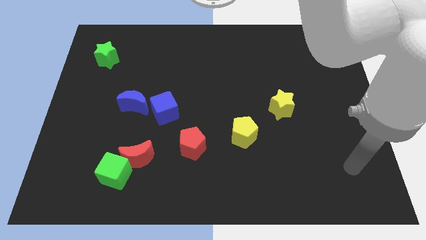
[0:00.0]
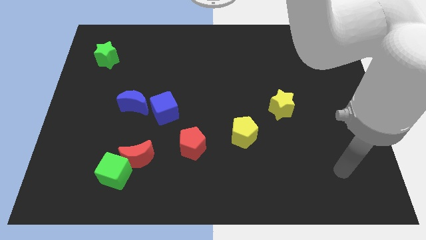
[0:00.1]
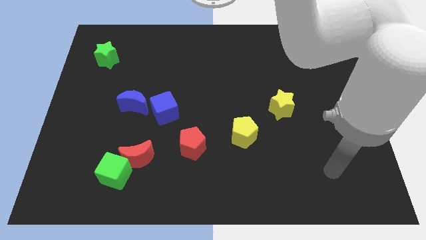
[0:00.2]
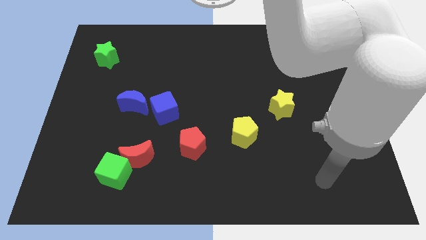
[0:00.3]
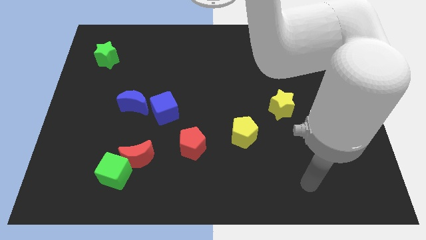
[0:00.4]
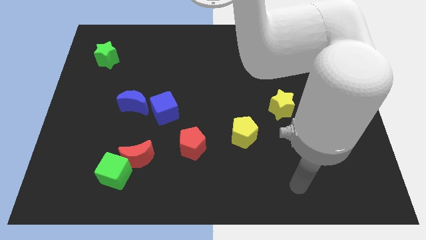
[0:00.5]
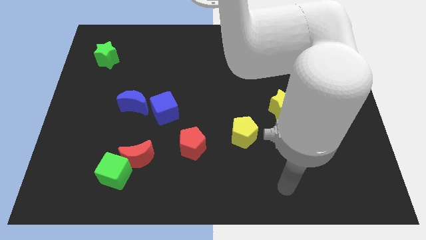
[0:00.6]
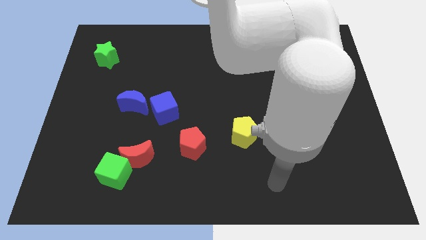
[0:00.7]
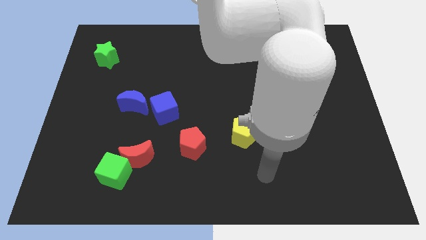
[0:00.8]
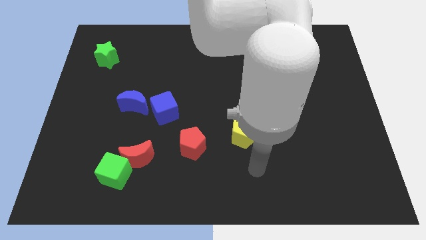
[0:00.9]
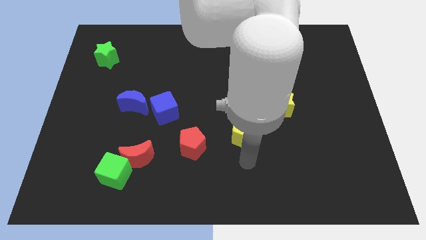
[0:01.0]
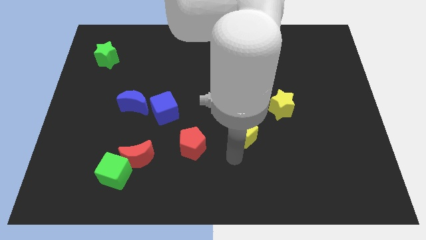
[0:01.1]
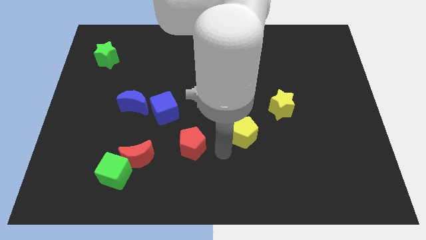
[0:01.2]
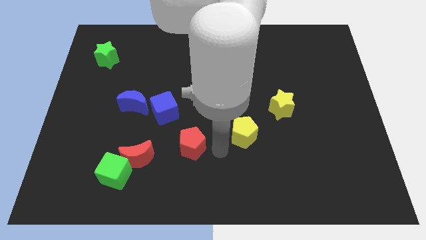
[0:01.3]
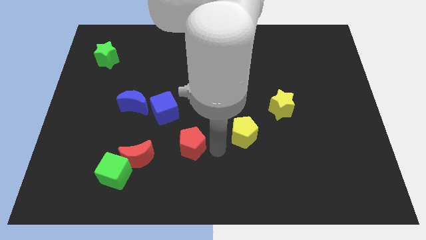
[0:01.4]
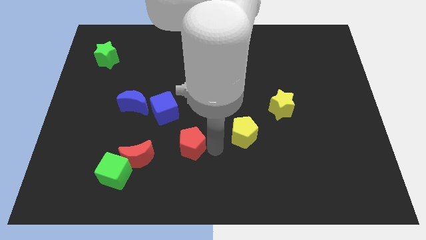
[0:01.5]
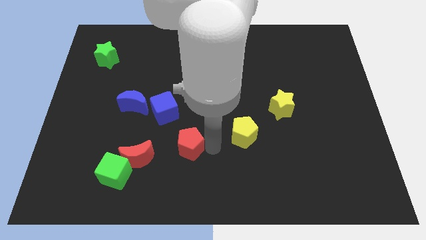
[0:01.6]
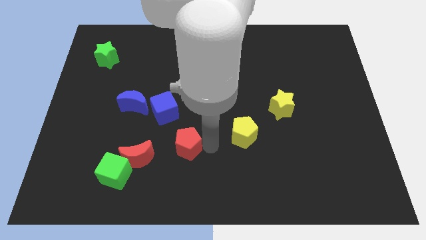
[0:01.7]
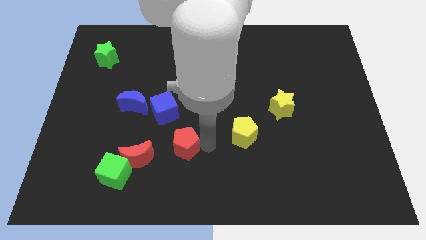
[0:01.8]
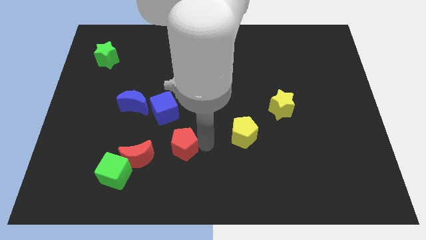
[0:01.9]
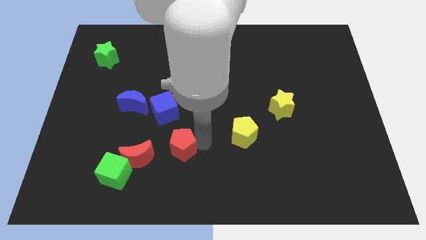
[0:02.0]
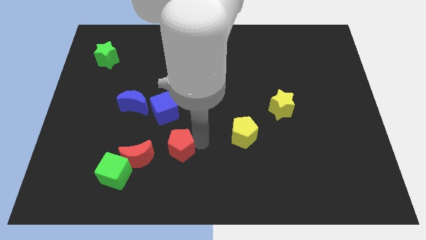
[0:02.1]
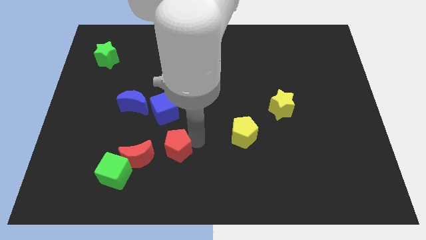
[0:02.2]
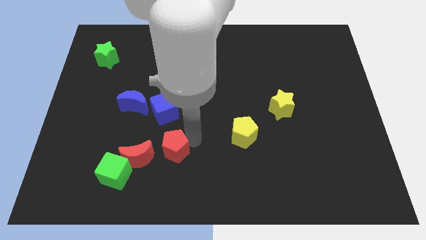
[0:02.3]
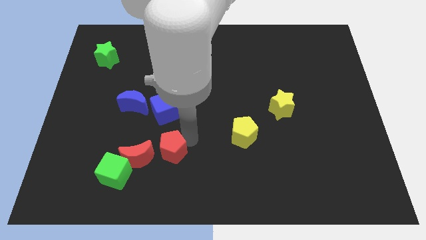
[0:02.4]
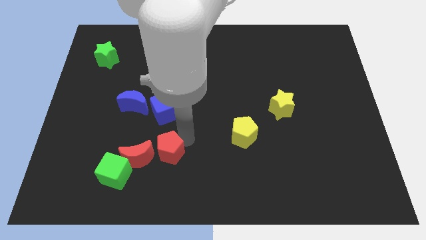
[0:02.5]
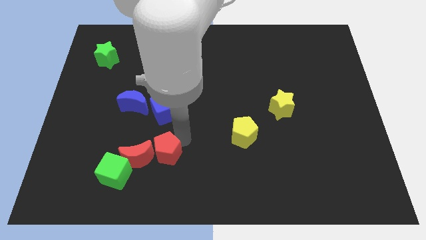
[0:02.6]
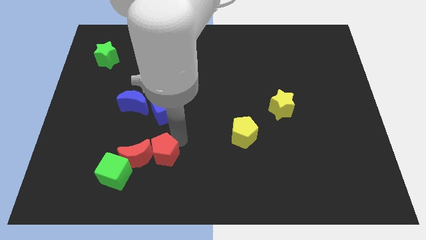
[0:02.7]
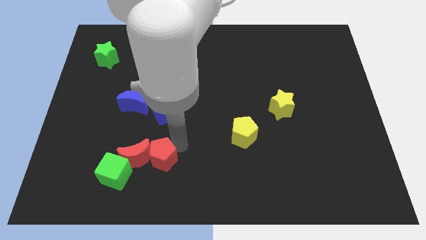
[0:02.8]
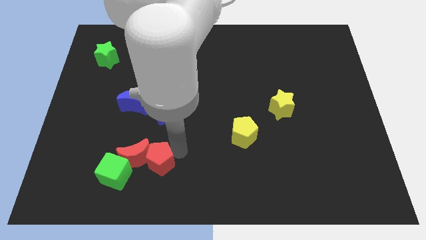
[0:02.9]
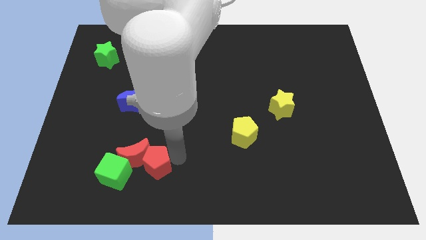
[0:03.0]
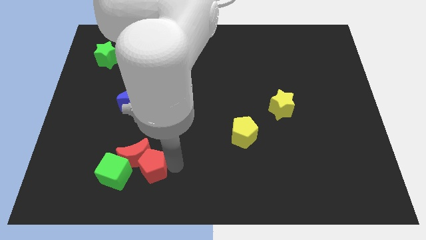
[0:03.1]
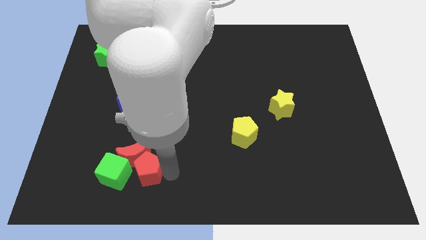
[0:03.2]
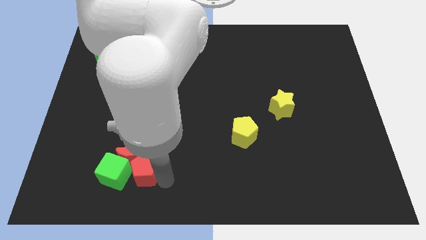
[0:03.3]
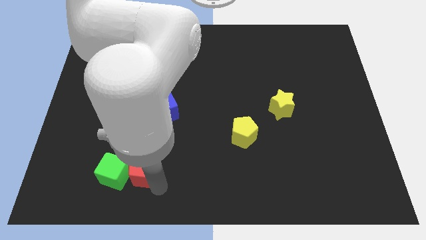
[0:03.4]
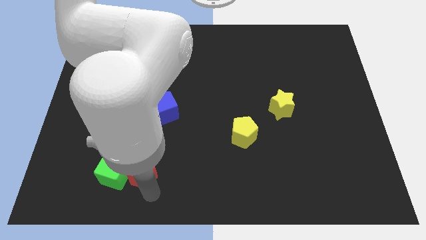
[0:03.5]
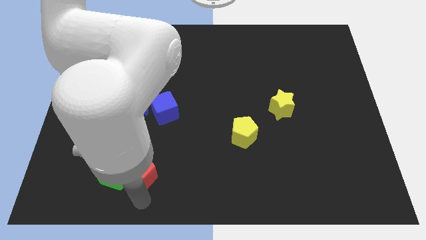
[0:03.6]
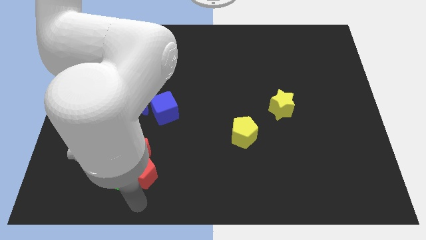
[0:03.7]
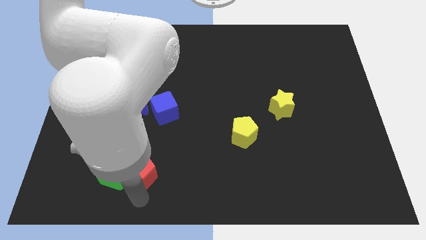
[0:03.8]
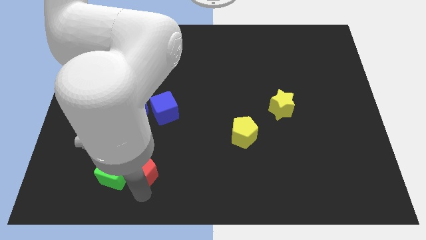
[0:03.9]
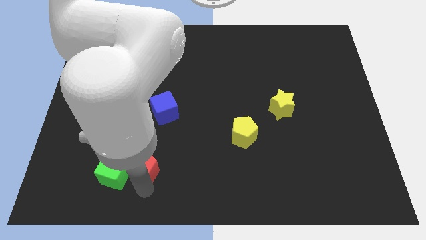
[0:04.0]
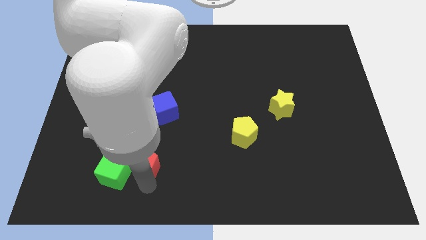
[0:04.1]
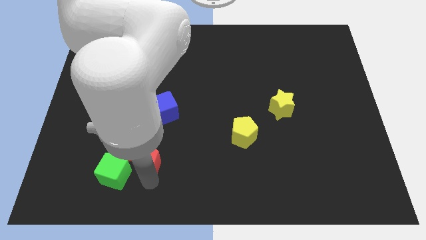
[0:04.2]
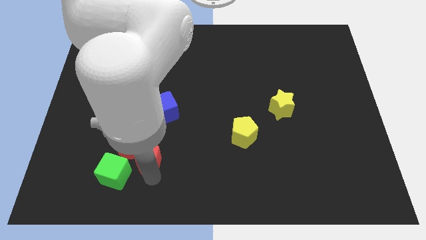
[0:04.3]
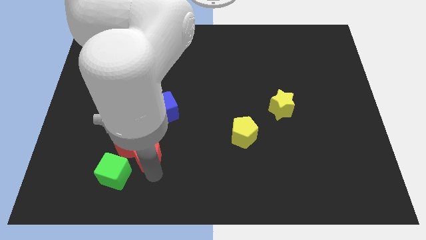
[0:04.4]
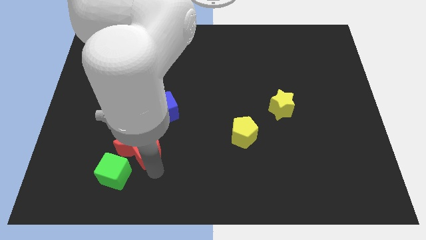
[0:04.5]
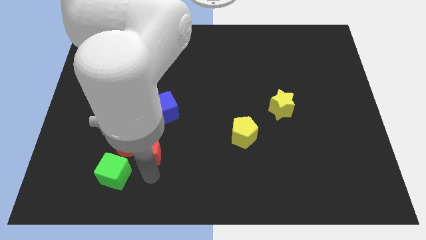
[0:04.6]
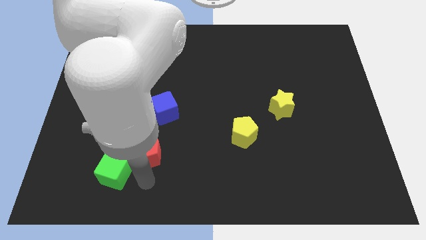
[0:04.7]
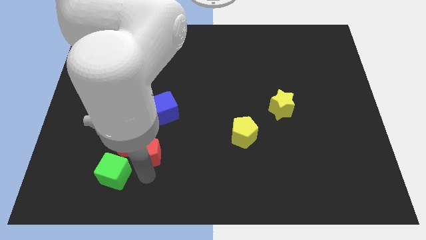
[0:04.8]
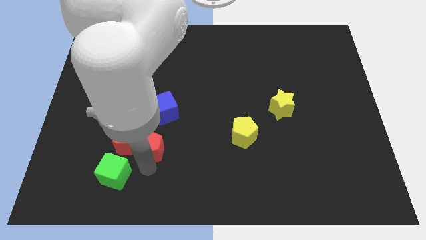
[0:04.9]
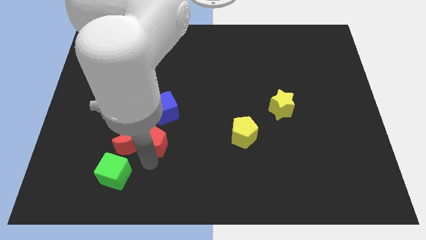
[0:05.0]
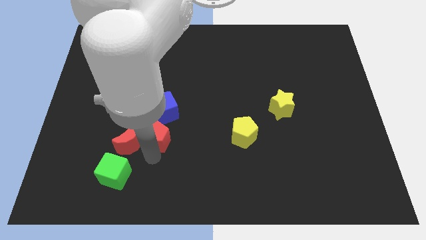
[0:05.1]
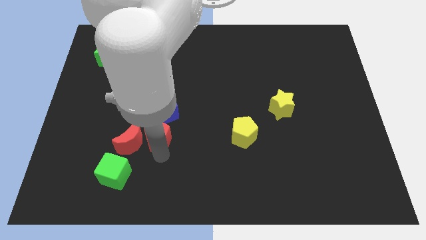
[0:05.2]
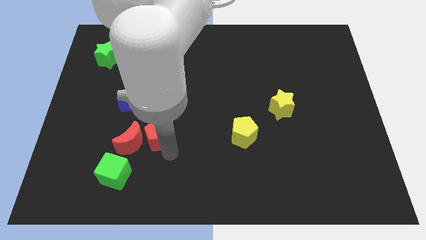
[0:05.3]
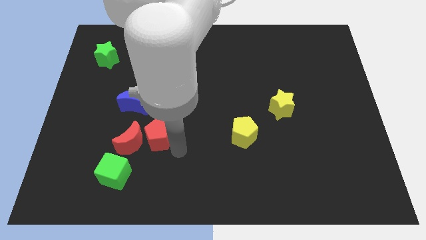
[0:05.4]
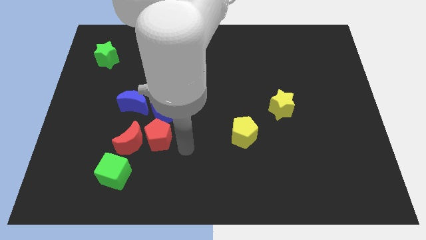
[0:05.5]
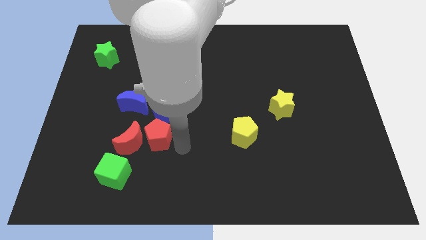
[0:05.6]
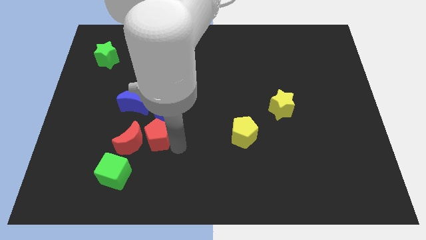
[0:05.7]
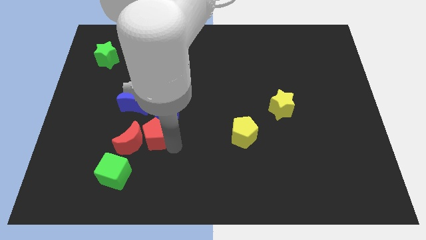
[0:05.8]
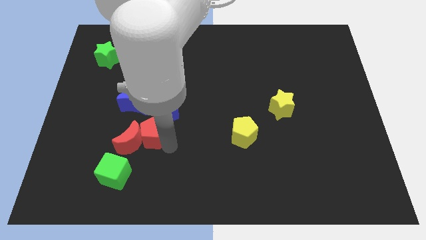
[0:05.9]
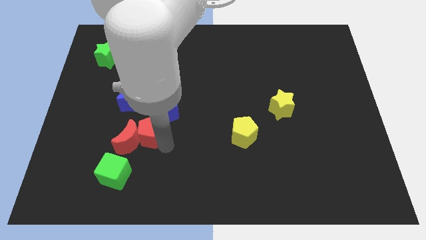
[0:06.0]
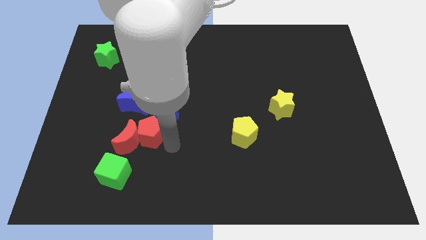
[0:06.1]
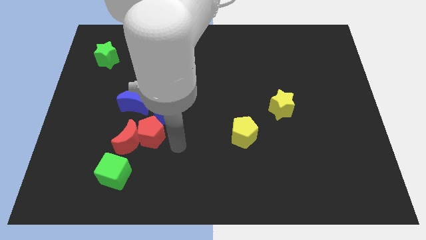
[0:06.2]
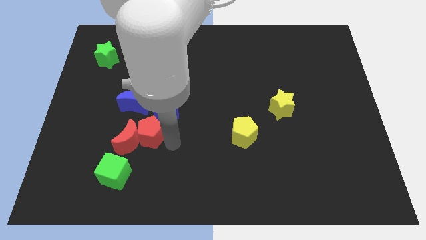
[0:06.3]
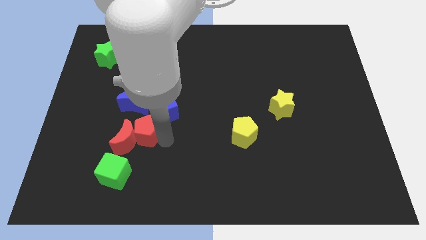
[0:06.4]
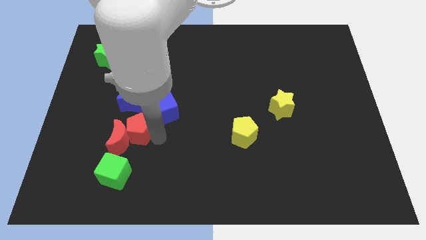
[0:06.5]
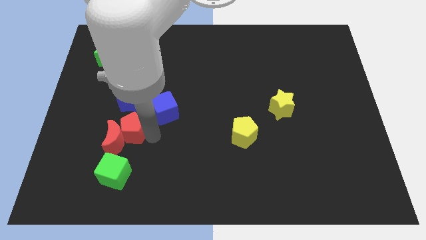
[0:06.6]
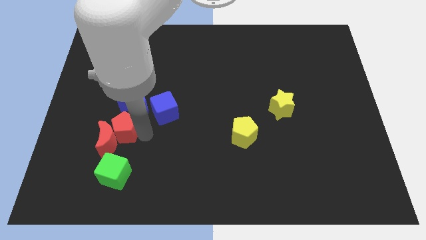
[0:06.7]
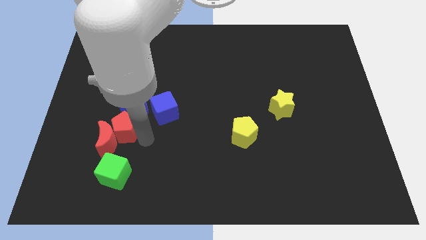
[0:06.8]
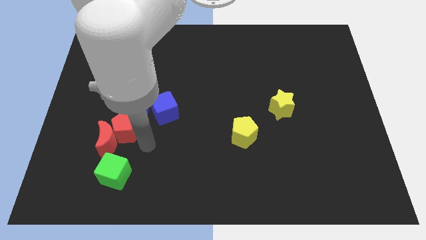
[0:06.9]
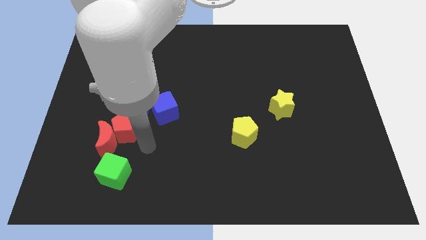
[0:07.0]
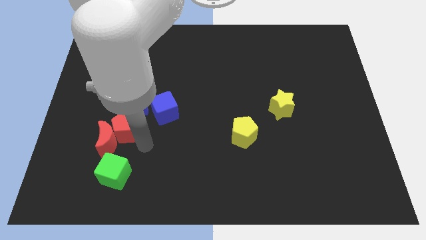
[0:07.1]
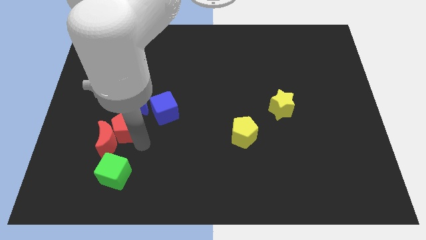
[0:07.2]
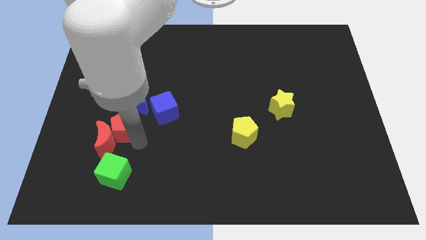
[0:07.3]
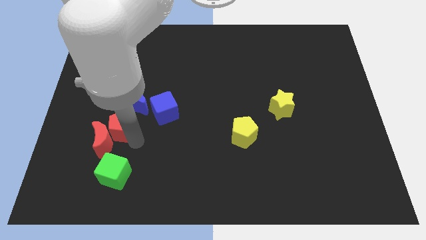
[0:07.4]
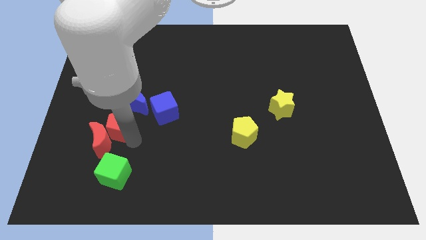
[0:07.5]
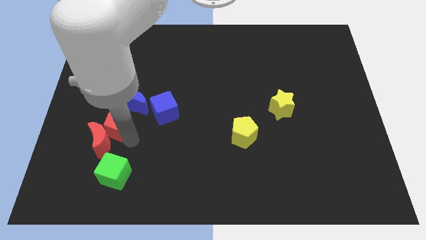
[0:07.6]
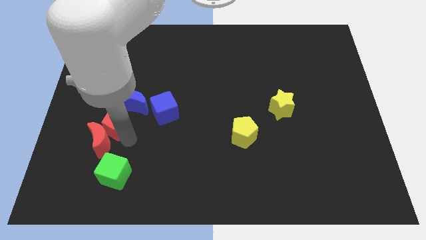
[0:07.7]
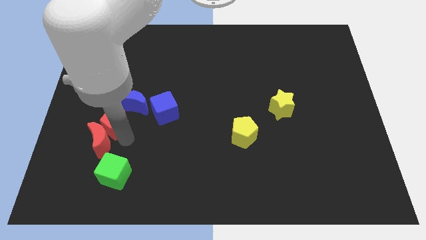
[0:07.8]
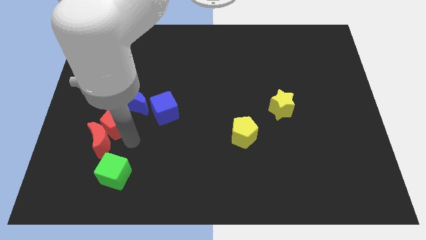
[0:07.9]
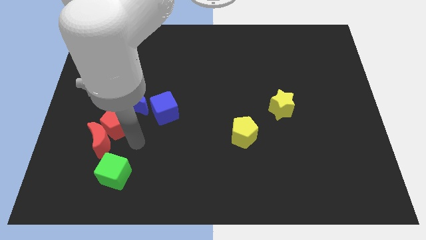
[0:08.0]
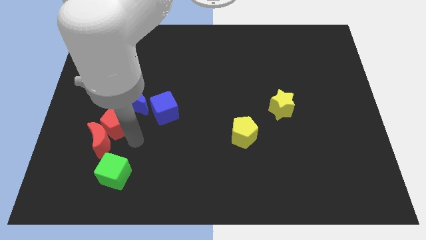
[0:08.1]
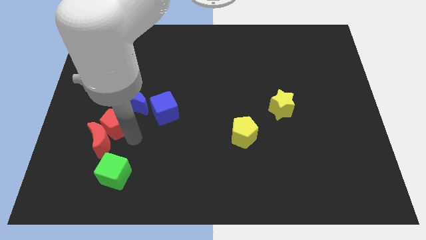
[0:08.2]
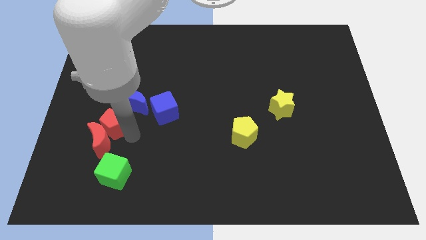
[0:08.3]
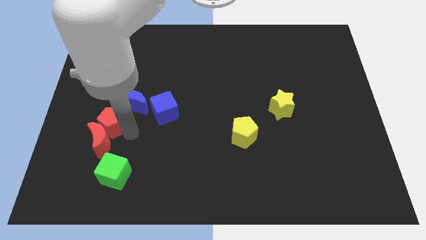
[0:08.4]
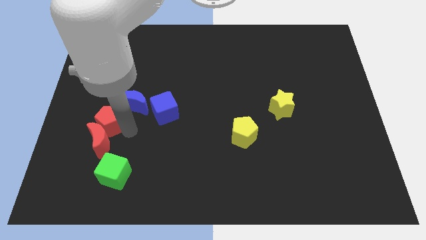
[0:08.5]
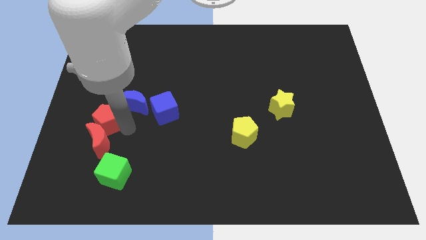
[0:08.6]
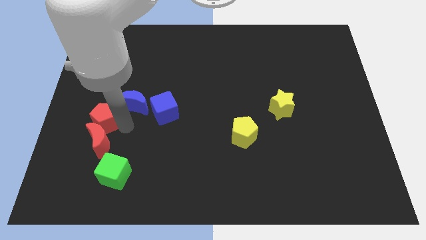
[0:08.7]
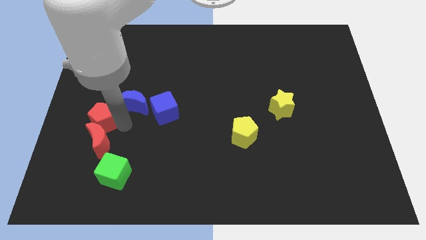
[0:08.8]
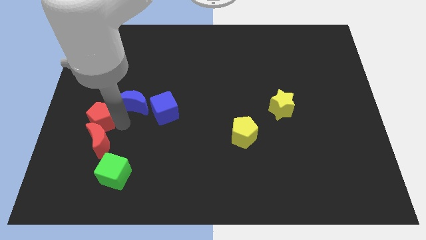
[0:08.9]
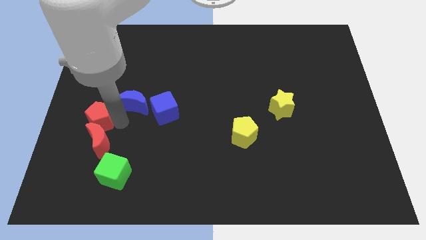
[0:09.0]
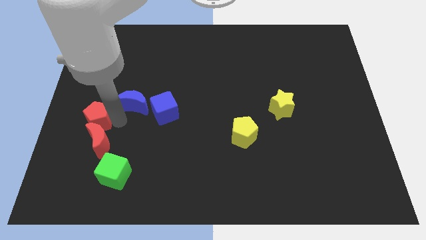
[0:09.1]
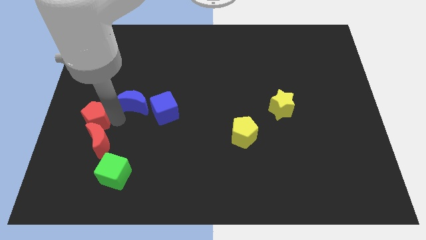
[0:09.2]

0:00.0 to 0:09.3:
push the red pentagon to the left side of the board
